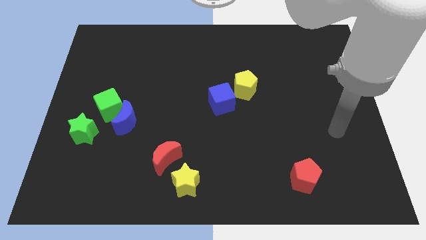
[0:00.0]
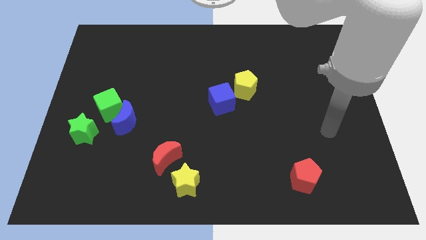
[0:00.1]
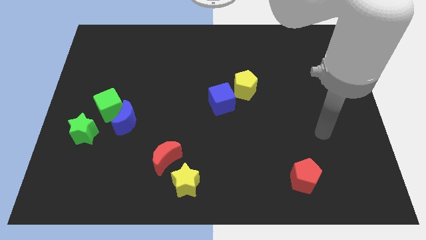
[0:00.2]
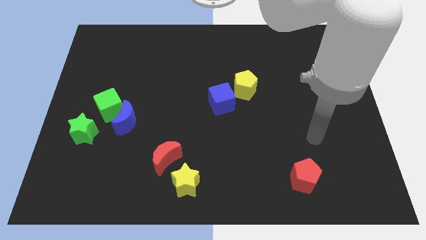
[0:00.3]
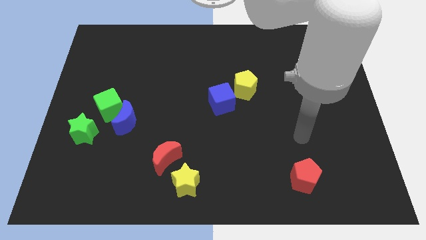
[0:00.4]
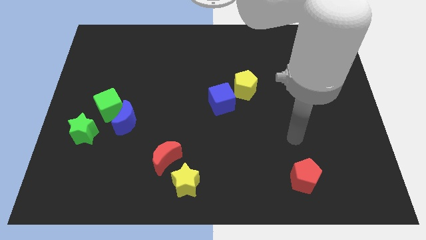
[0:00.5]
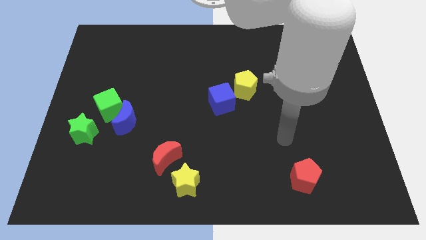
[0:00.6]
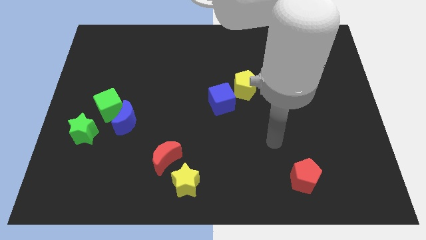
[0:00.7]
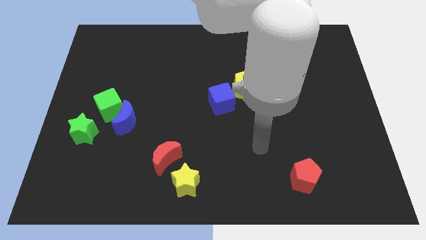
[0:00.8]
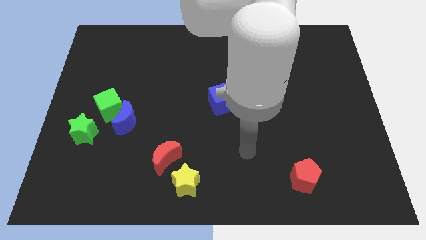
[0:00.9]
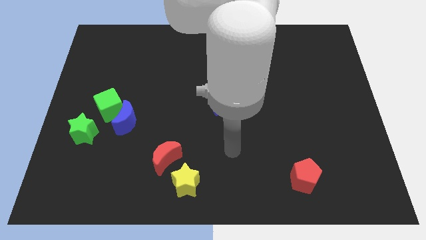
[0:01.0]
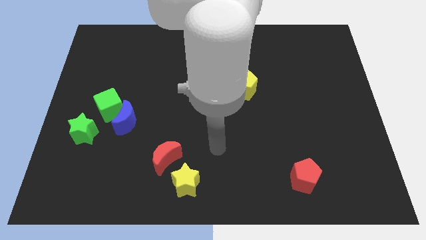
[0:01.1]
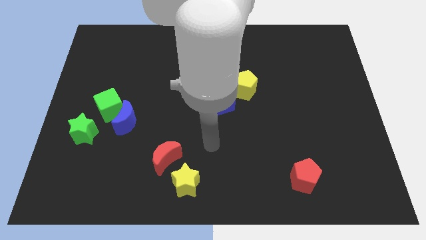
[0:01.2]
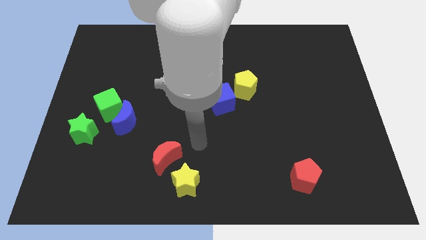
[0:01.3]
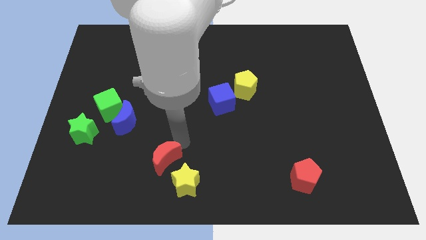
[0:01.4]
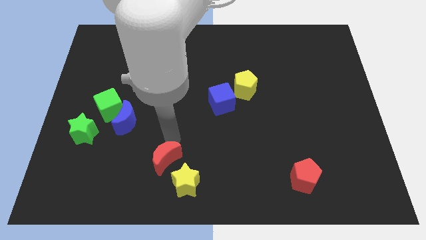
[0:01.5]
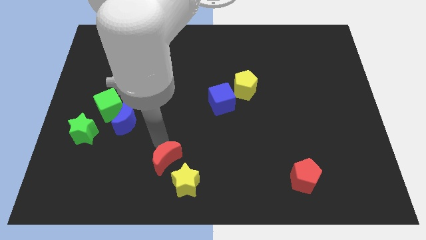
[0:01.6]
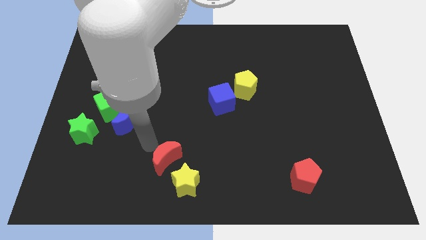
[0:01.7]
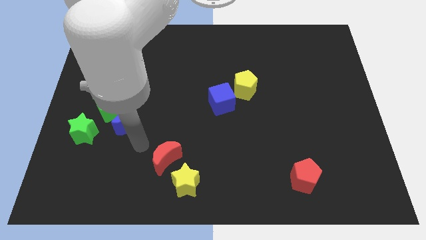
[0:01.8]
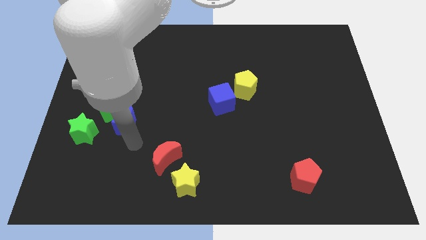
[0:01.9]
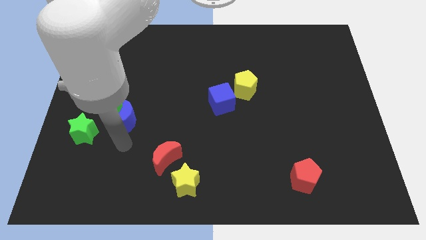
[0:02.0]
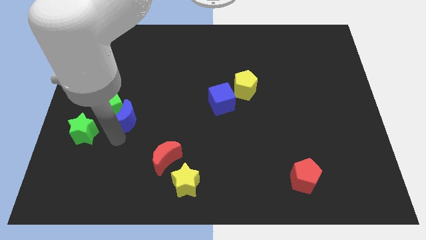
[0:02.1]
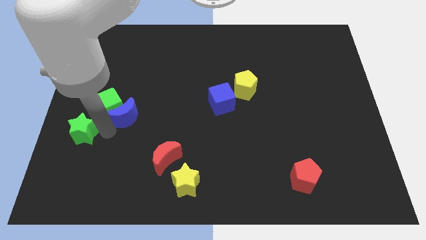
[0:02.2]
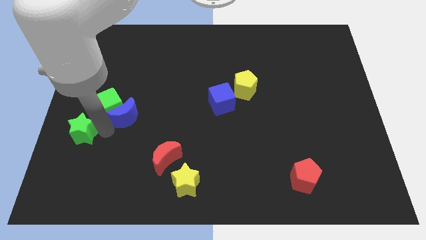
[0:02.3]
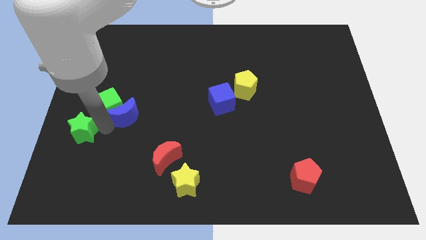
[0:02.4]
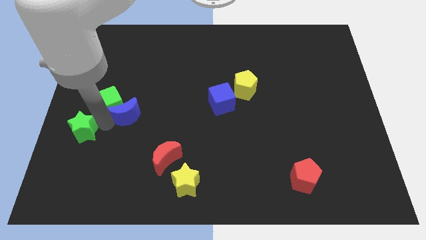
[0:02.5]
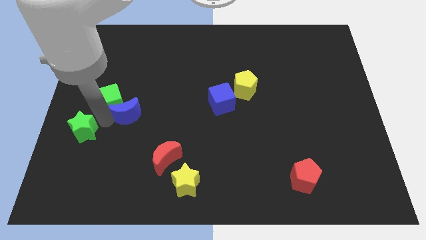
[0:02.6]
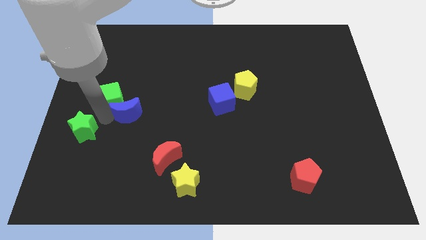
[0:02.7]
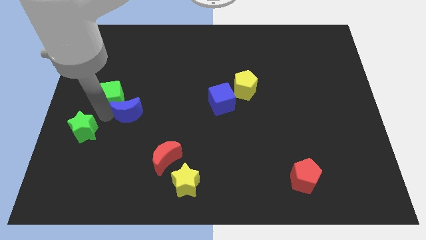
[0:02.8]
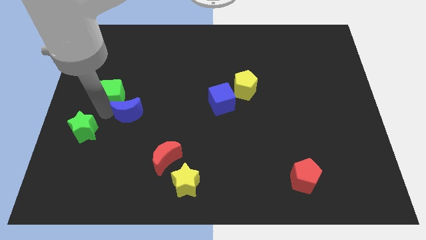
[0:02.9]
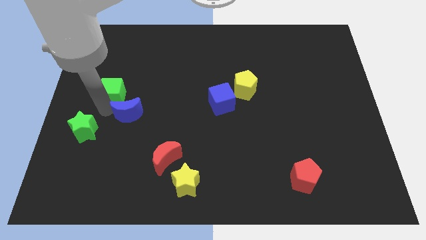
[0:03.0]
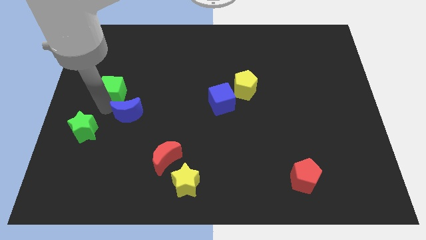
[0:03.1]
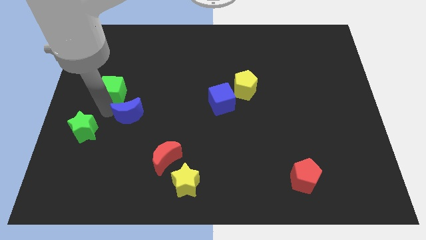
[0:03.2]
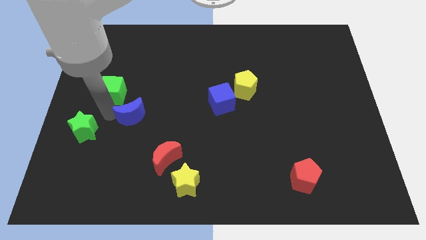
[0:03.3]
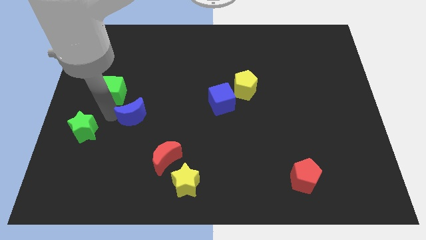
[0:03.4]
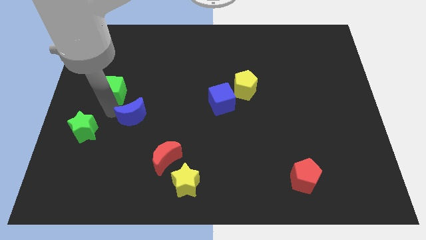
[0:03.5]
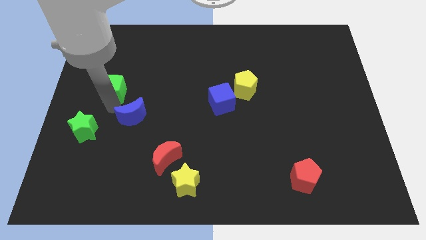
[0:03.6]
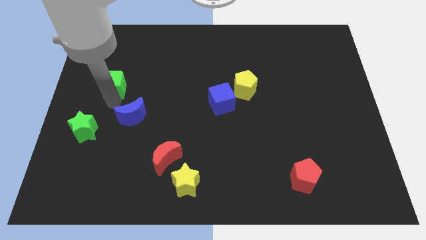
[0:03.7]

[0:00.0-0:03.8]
move the green cube away from the blue moon and green star

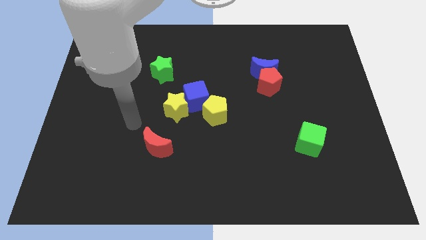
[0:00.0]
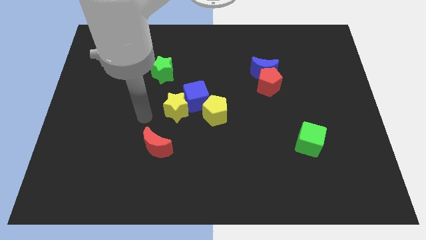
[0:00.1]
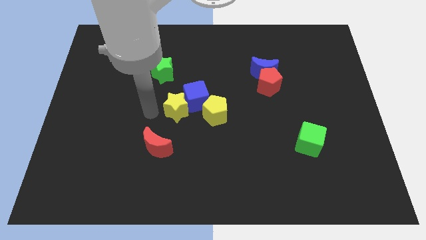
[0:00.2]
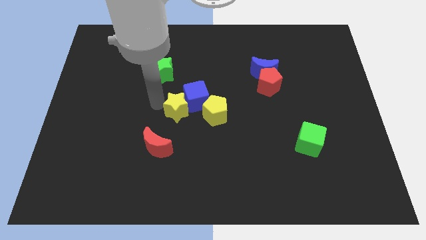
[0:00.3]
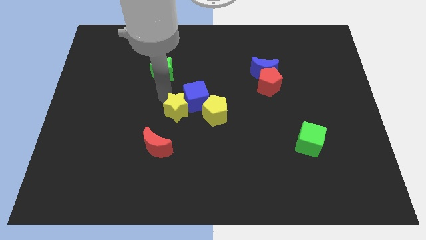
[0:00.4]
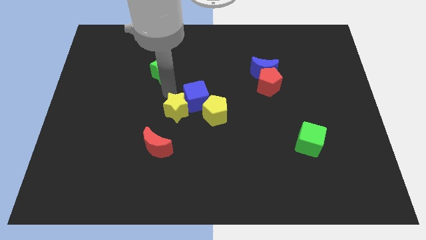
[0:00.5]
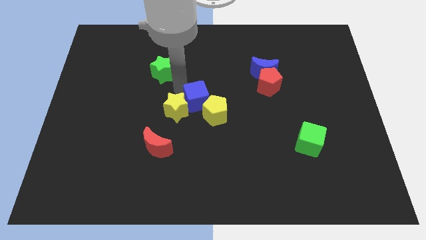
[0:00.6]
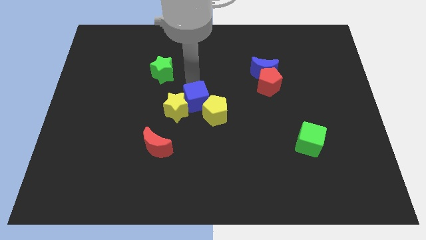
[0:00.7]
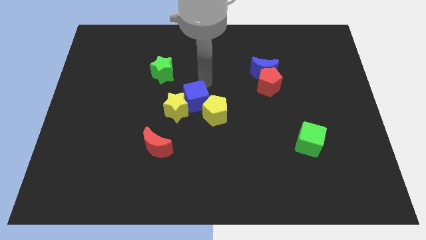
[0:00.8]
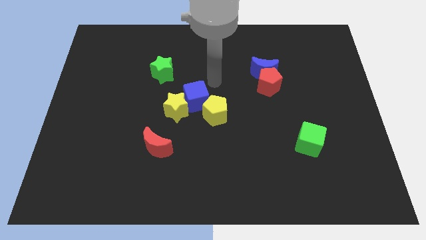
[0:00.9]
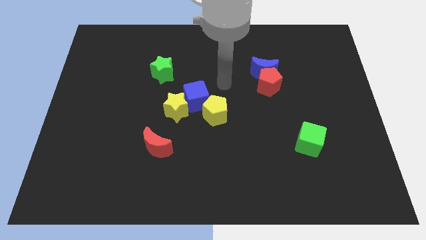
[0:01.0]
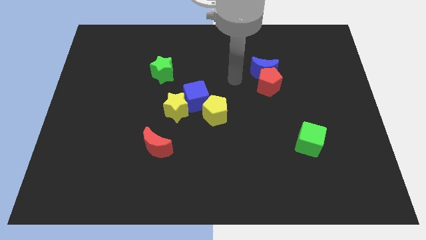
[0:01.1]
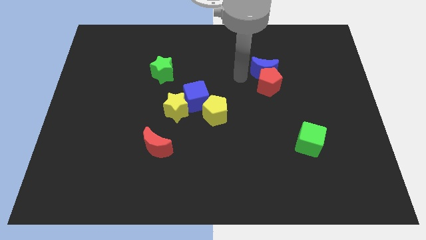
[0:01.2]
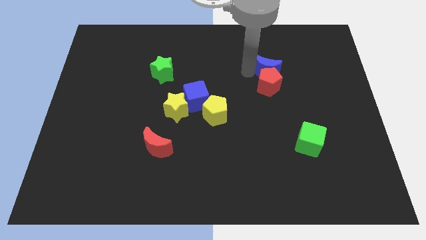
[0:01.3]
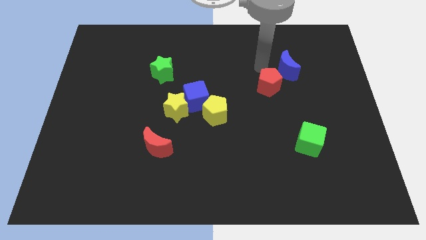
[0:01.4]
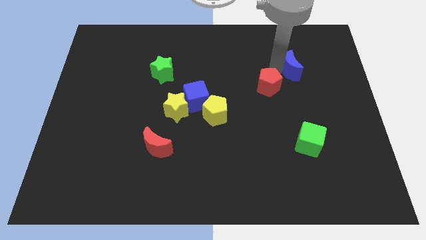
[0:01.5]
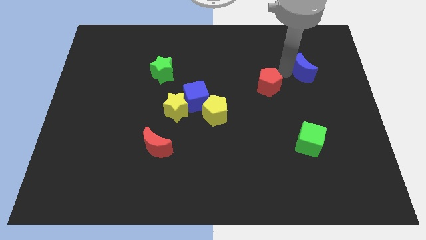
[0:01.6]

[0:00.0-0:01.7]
separate the red pentagon from the blue moon

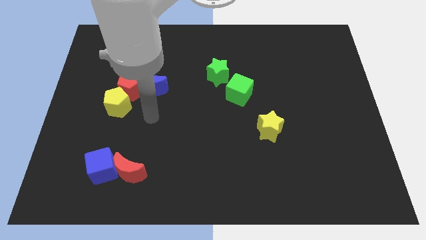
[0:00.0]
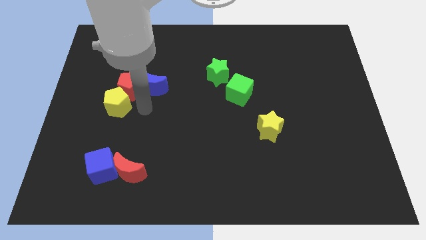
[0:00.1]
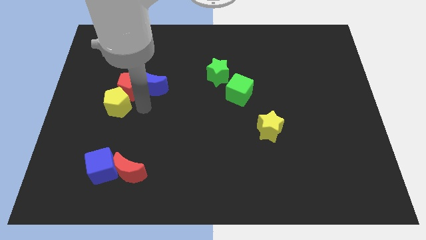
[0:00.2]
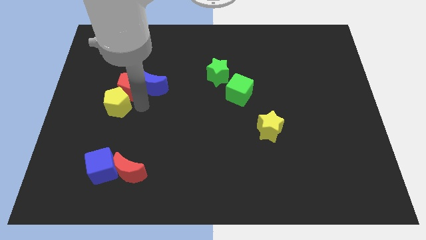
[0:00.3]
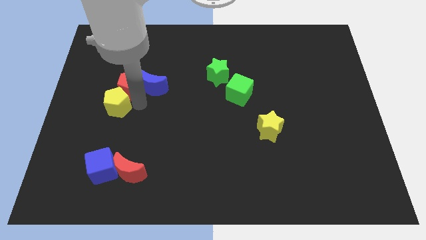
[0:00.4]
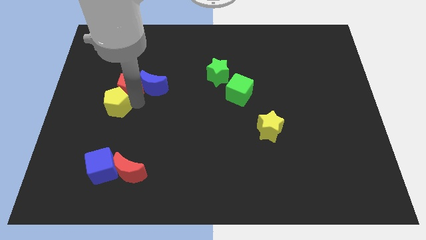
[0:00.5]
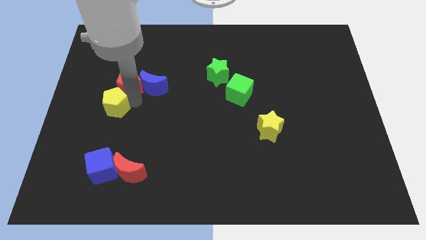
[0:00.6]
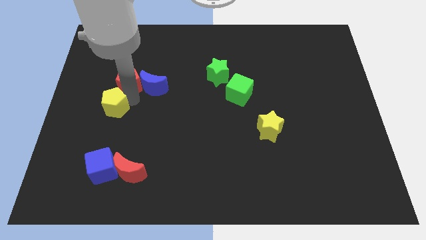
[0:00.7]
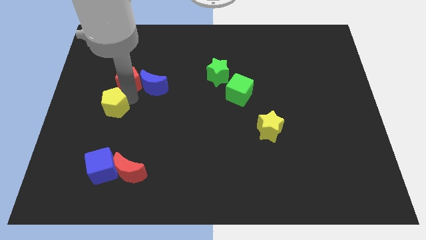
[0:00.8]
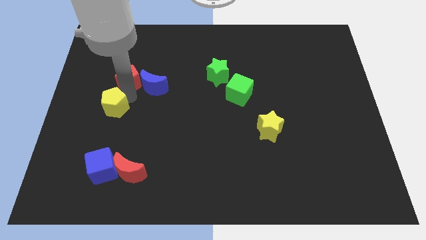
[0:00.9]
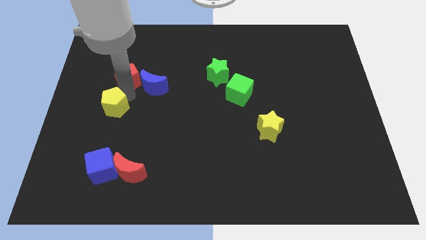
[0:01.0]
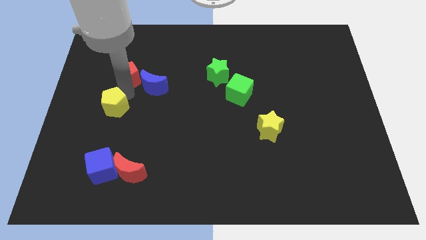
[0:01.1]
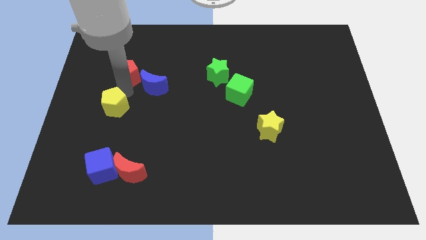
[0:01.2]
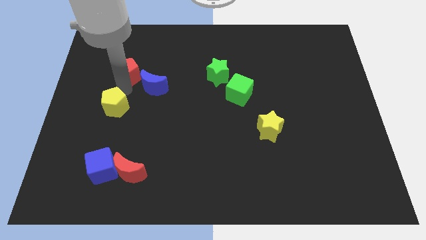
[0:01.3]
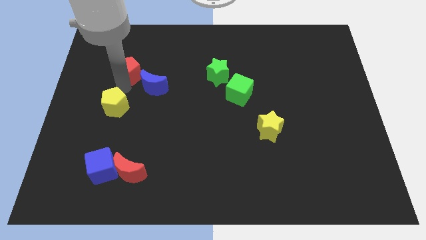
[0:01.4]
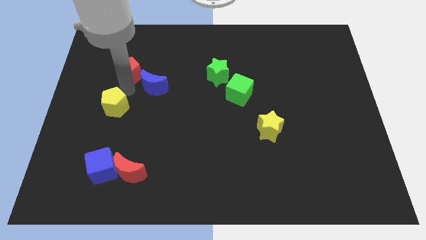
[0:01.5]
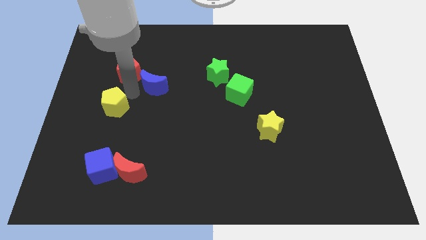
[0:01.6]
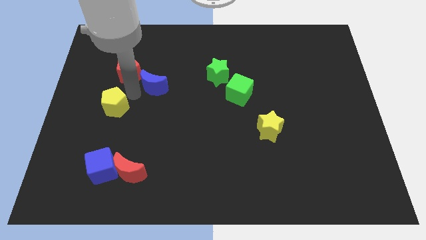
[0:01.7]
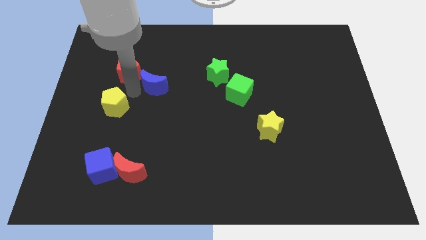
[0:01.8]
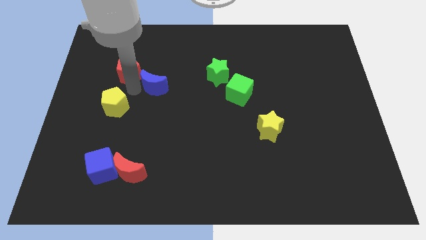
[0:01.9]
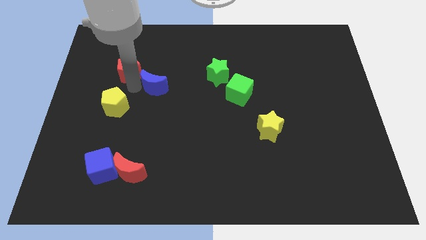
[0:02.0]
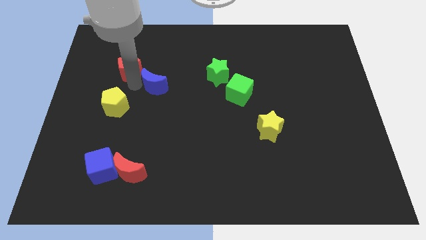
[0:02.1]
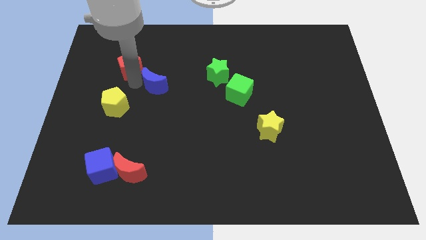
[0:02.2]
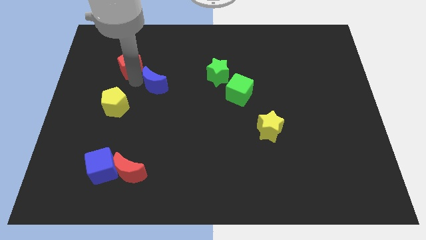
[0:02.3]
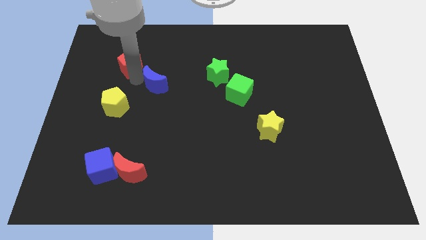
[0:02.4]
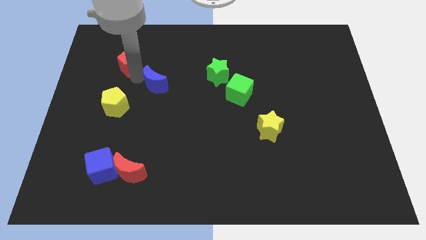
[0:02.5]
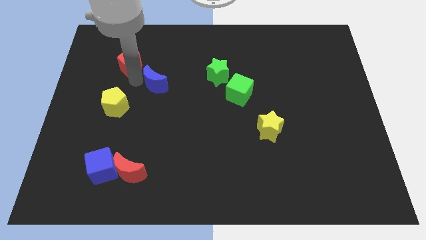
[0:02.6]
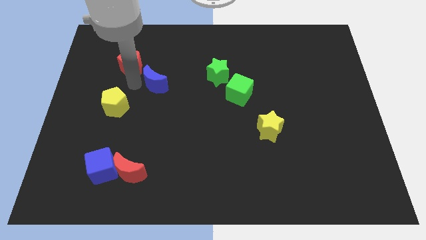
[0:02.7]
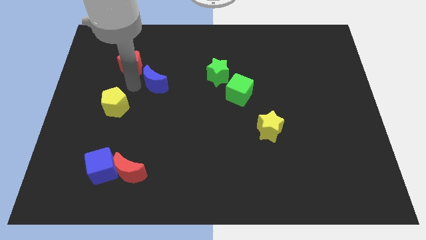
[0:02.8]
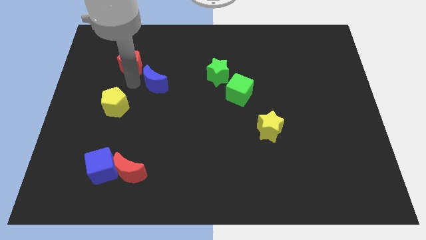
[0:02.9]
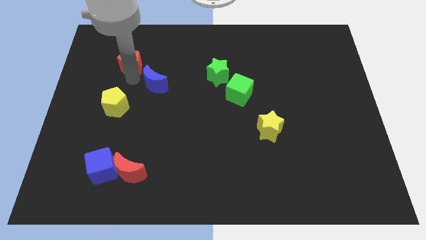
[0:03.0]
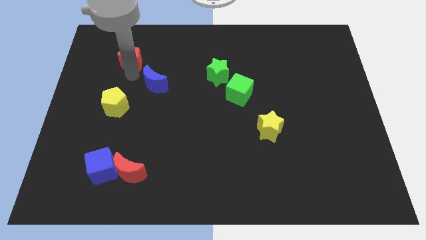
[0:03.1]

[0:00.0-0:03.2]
separate the red pentagon from the yellow pentagon and blue moon

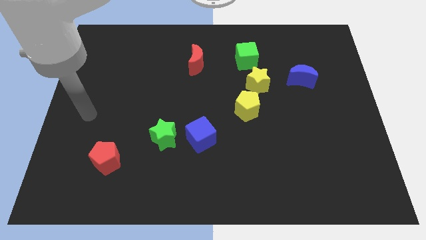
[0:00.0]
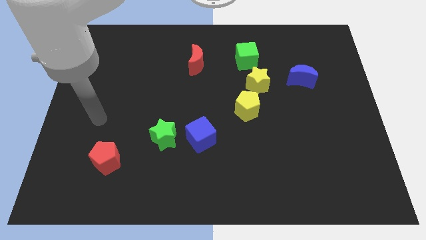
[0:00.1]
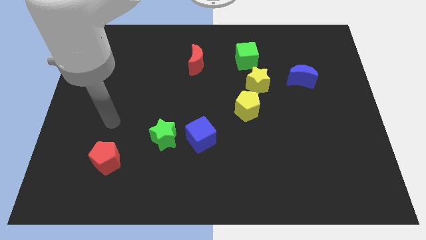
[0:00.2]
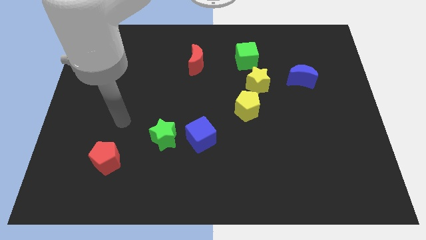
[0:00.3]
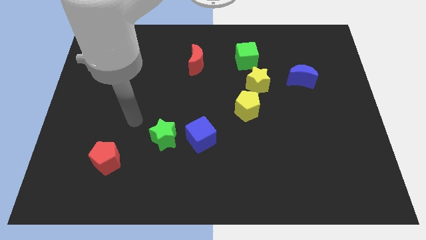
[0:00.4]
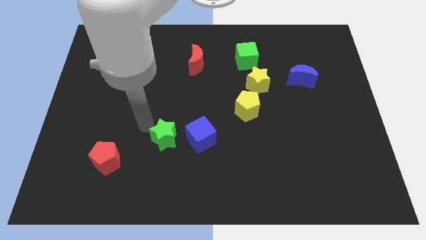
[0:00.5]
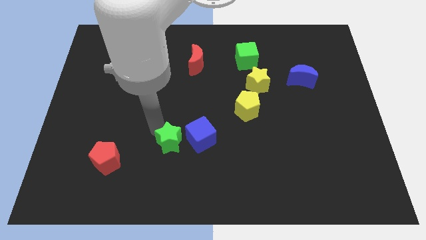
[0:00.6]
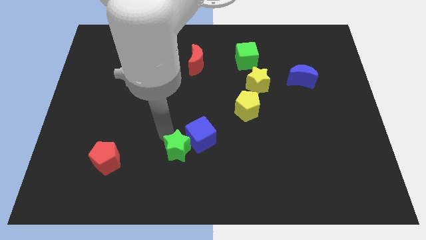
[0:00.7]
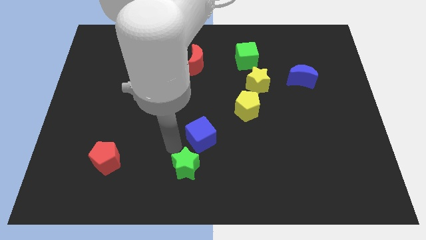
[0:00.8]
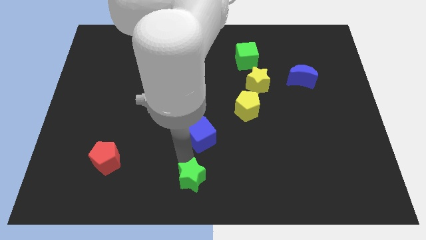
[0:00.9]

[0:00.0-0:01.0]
separate the blue cube from the green star
